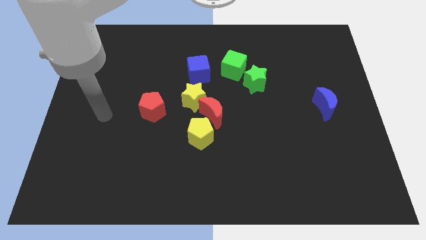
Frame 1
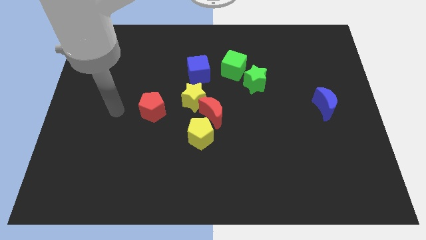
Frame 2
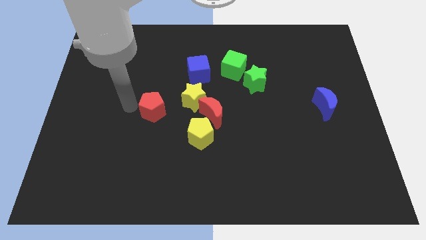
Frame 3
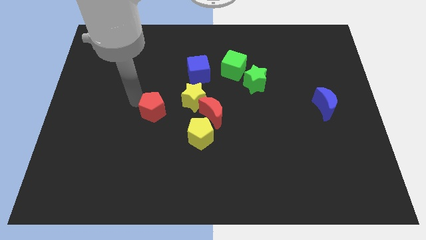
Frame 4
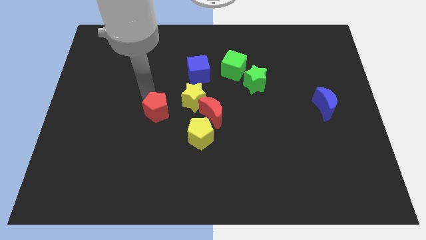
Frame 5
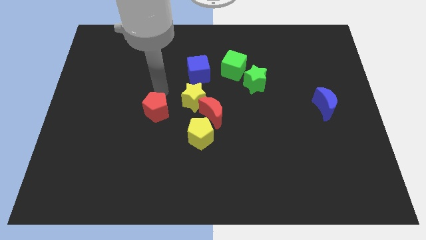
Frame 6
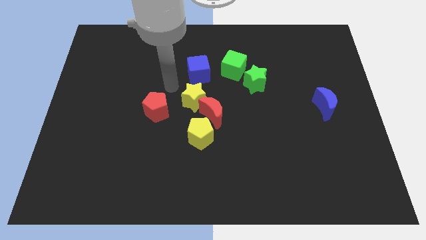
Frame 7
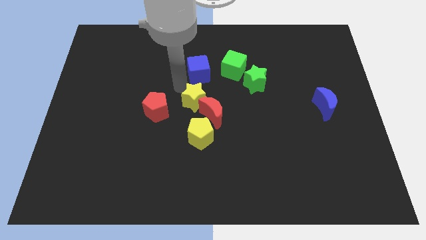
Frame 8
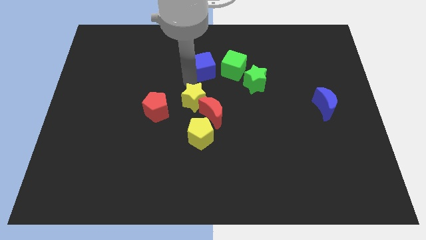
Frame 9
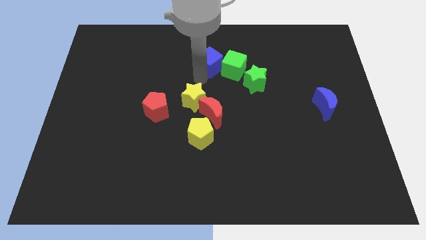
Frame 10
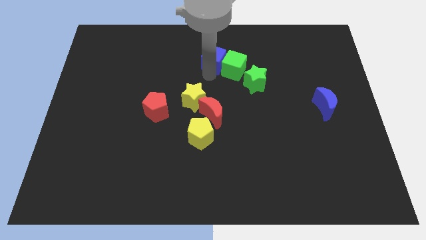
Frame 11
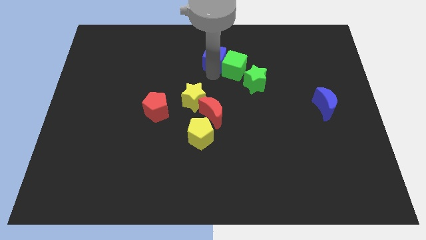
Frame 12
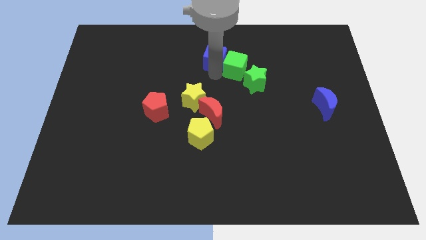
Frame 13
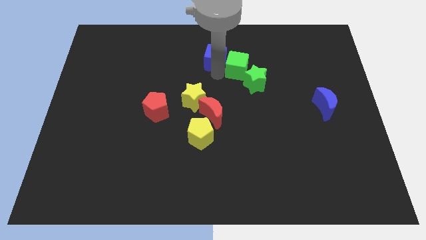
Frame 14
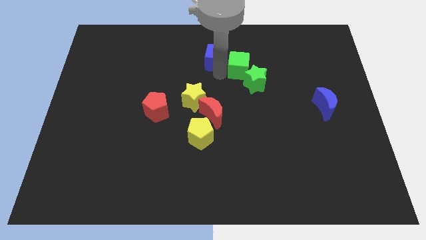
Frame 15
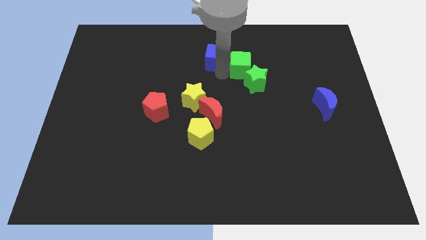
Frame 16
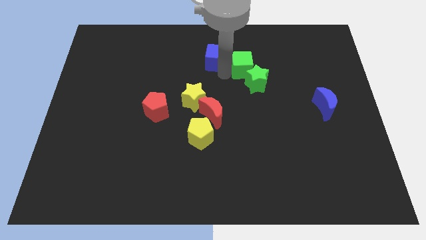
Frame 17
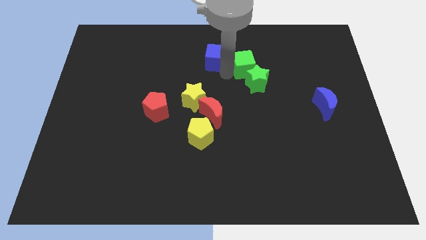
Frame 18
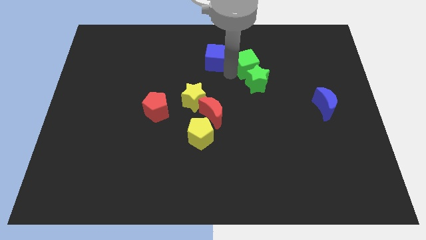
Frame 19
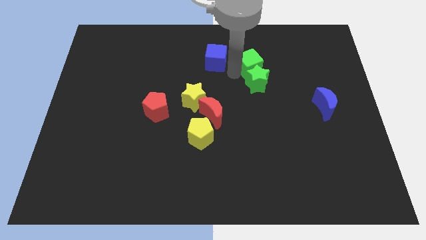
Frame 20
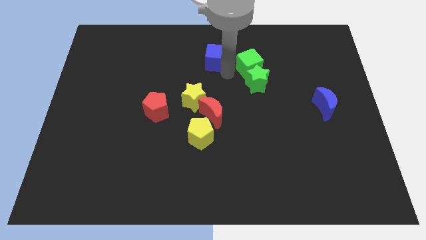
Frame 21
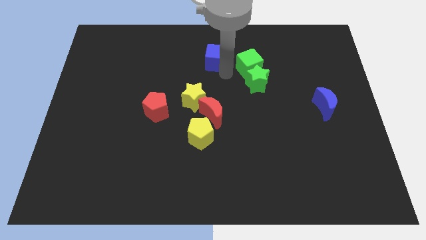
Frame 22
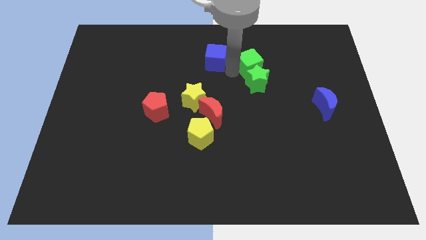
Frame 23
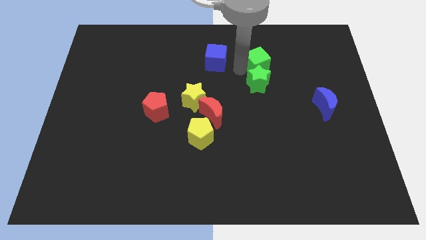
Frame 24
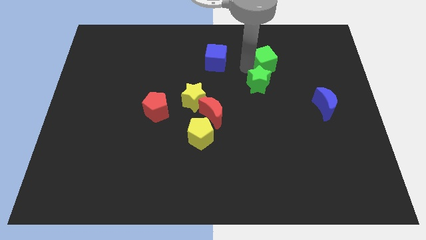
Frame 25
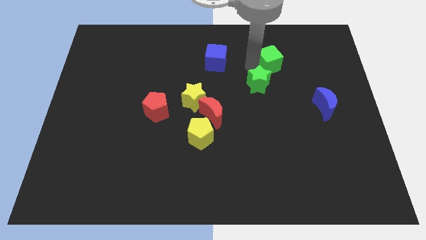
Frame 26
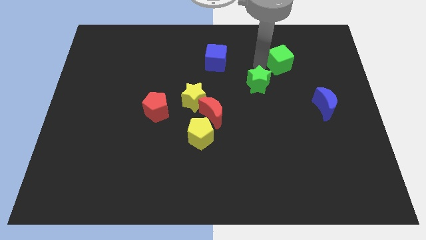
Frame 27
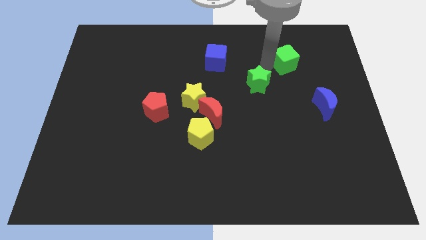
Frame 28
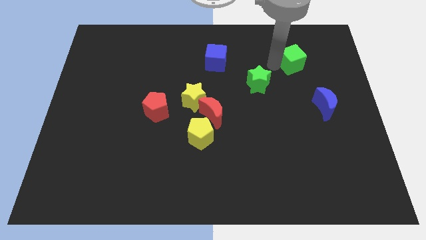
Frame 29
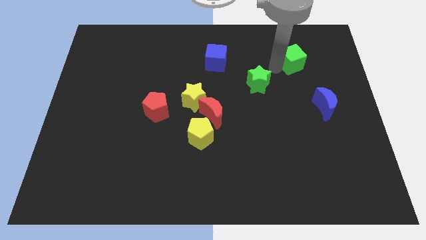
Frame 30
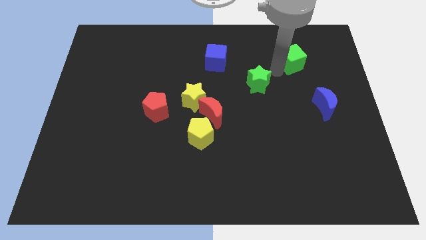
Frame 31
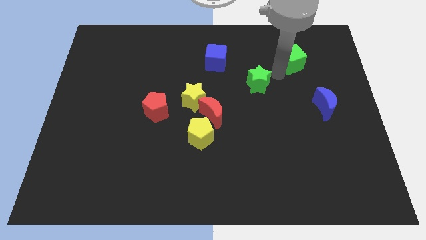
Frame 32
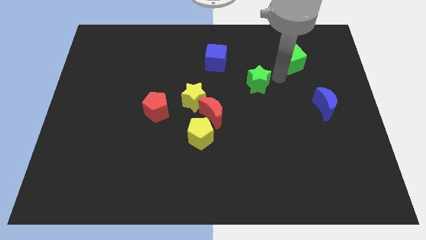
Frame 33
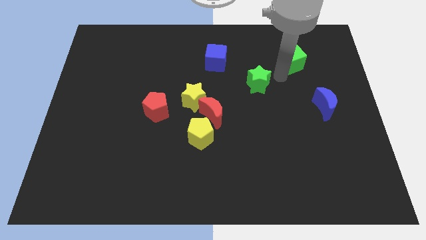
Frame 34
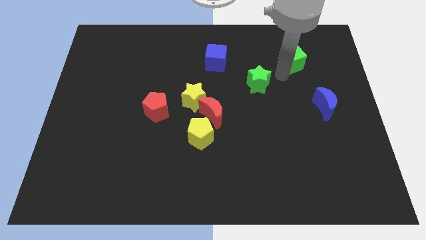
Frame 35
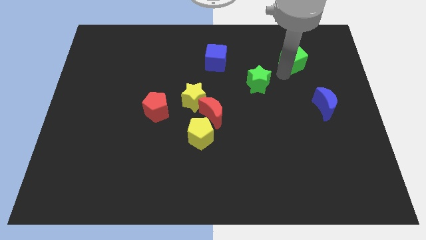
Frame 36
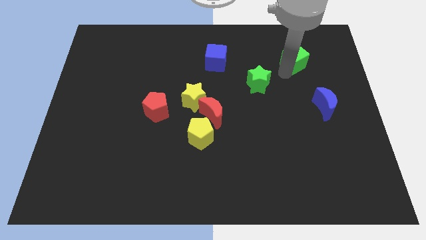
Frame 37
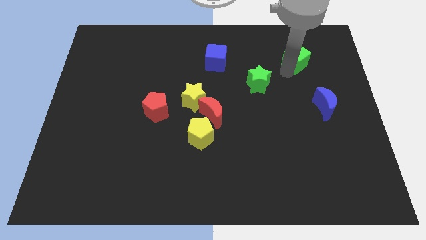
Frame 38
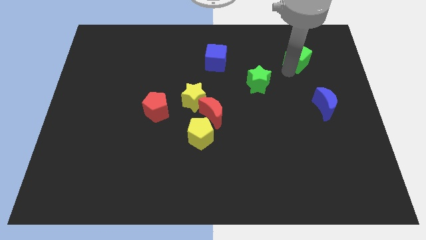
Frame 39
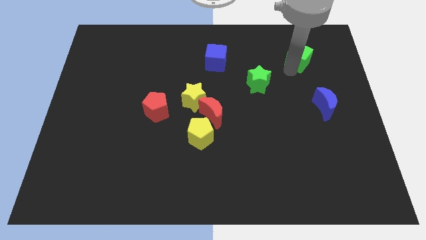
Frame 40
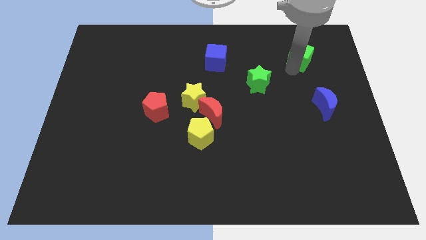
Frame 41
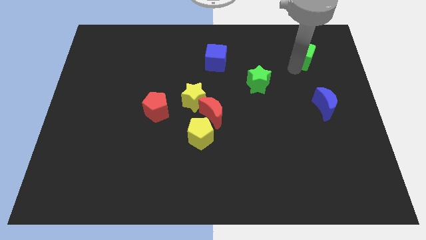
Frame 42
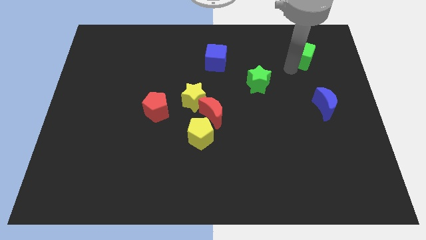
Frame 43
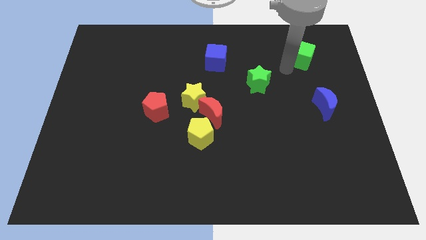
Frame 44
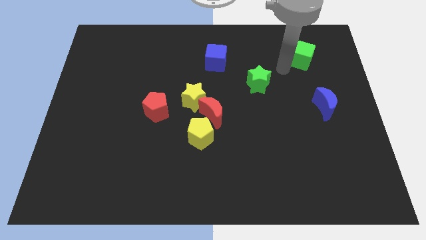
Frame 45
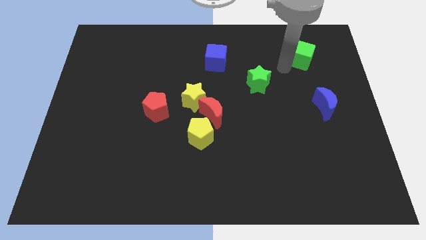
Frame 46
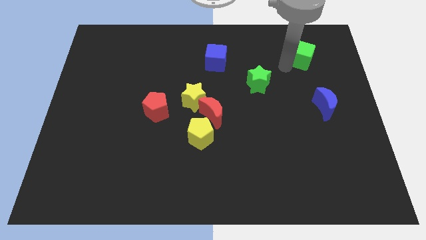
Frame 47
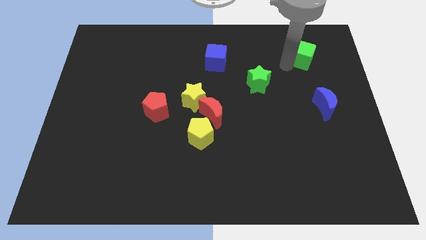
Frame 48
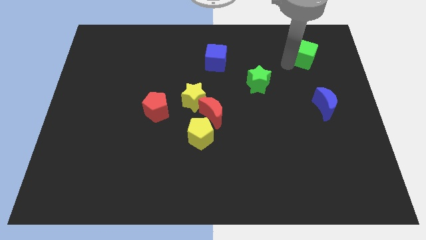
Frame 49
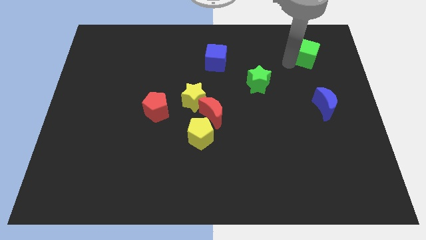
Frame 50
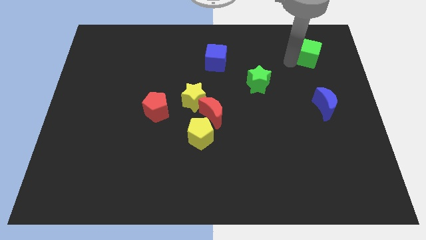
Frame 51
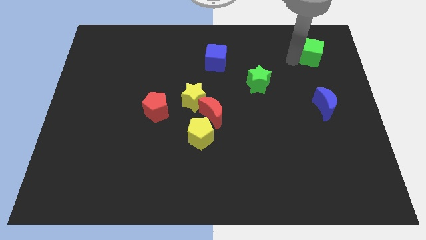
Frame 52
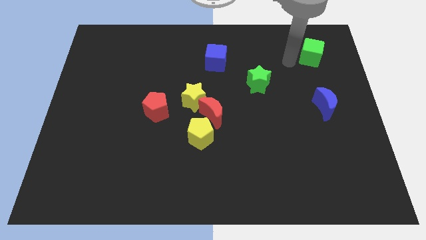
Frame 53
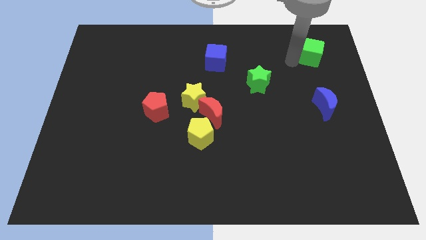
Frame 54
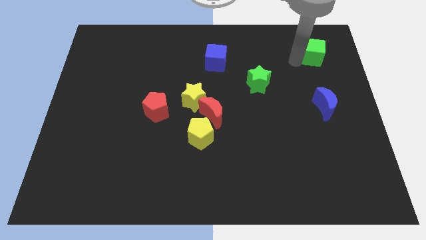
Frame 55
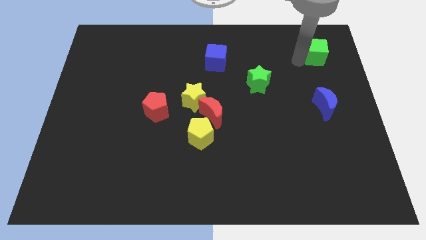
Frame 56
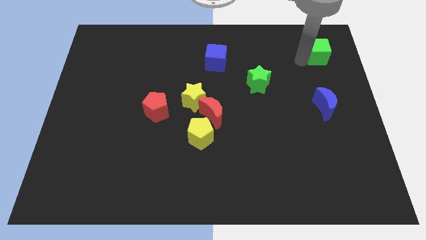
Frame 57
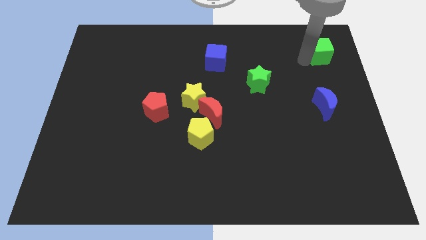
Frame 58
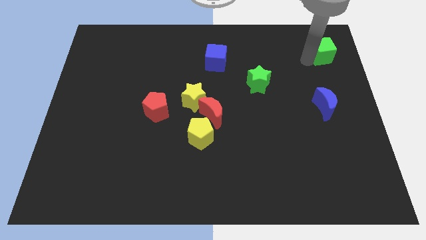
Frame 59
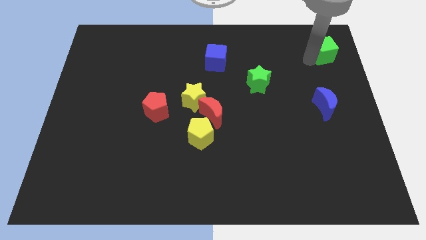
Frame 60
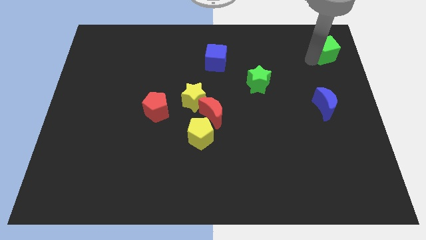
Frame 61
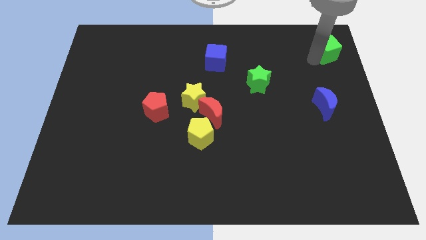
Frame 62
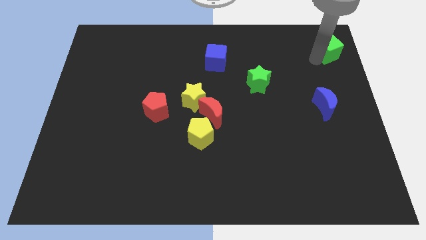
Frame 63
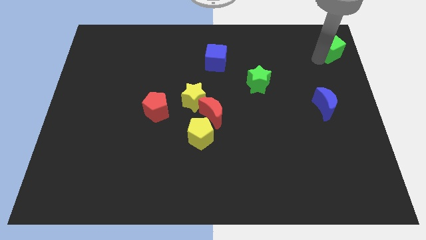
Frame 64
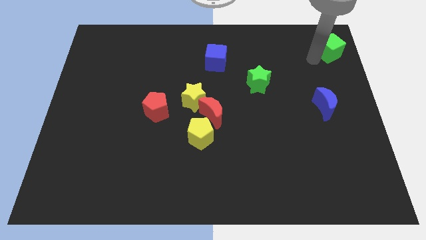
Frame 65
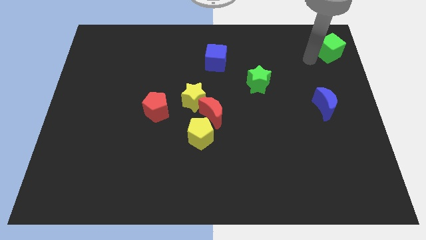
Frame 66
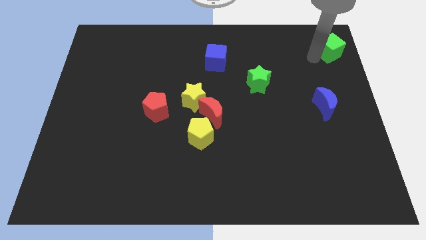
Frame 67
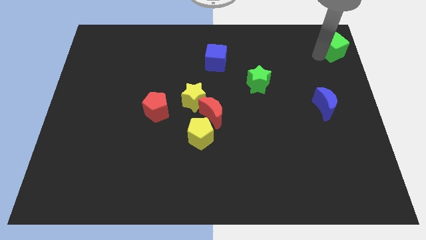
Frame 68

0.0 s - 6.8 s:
slide the green cube to the top right

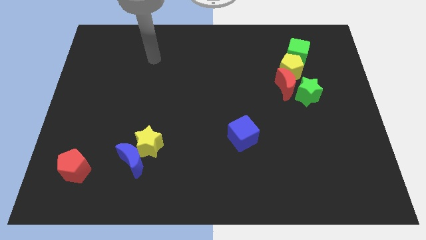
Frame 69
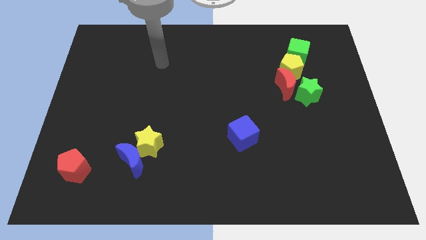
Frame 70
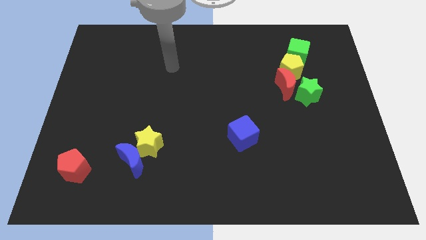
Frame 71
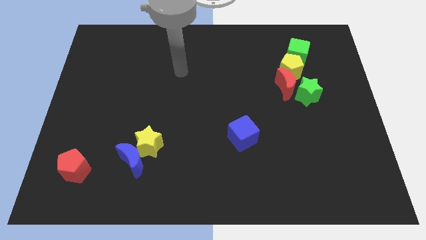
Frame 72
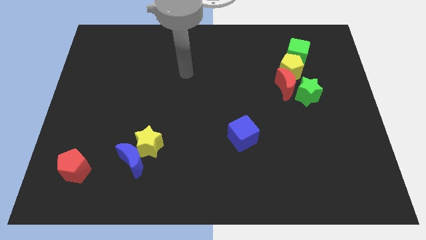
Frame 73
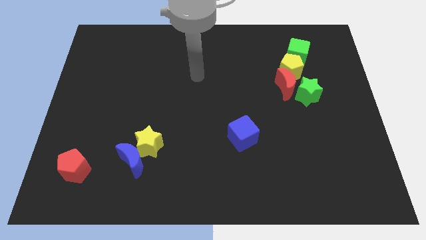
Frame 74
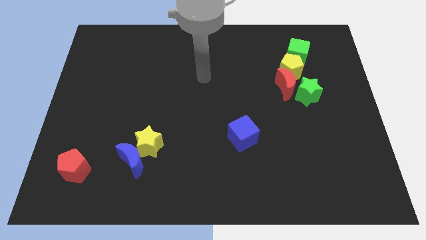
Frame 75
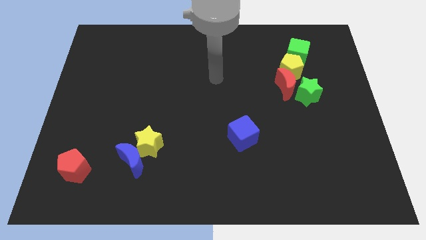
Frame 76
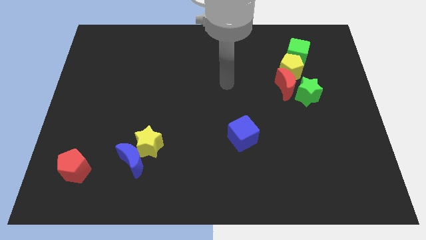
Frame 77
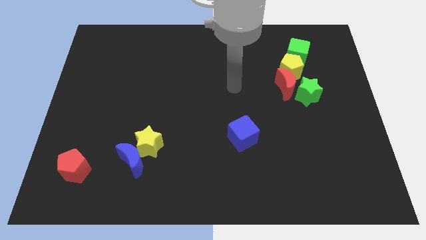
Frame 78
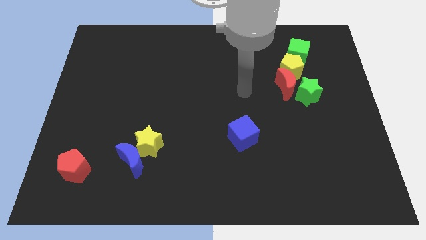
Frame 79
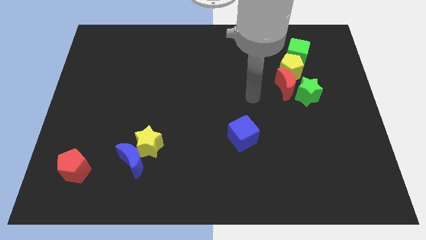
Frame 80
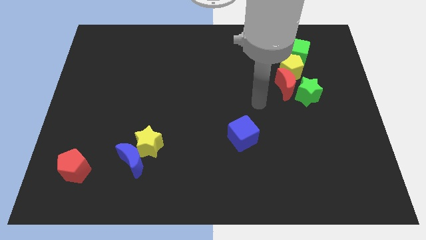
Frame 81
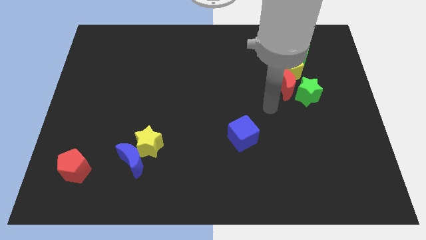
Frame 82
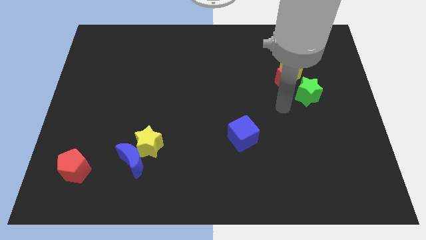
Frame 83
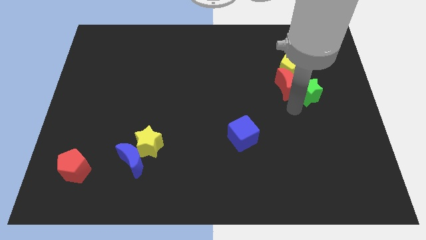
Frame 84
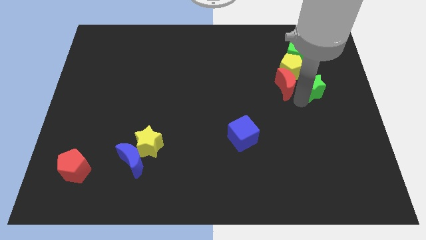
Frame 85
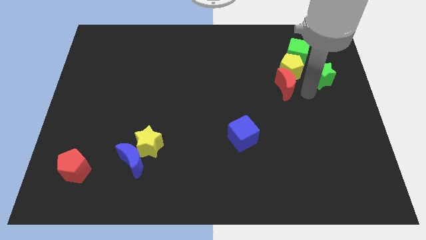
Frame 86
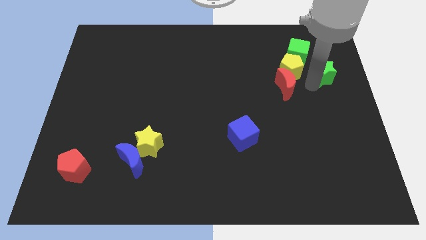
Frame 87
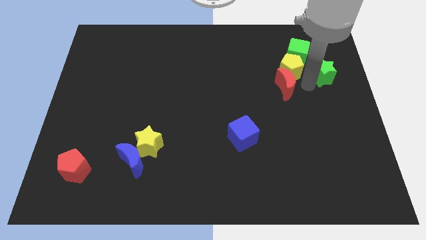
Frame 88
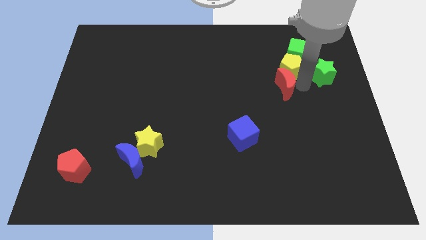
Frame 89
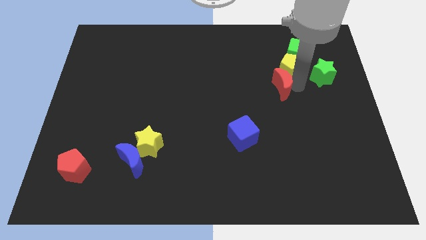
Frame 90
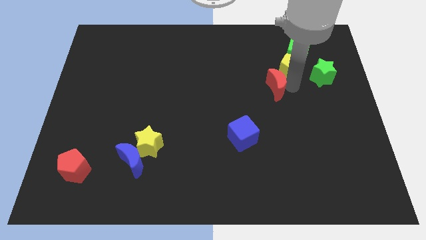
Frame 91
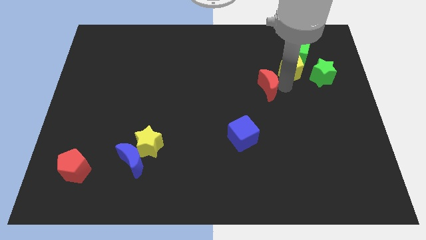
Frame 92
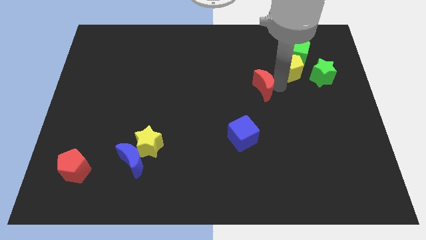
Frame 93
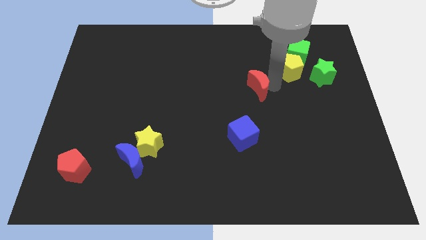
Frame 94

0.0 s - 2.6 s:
move the red moon to the center
